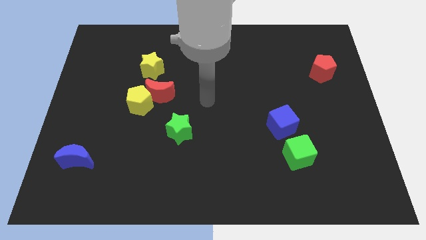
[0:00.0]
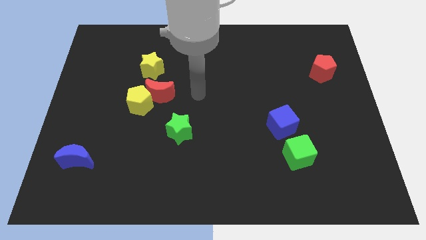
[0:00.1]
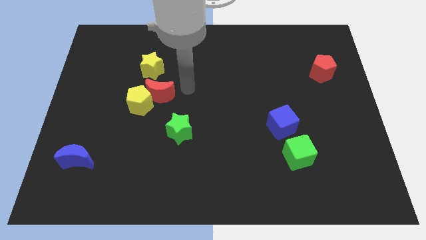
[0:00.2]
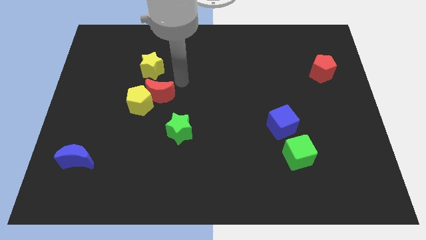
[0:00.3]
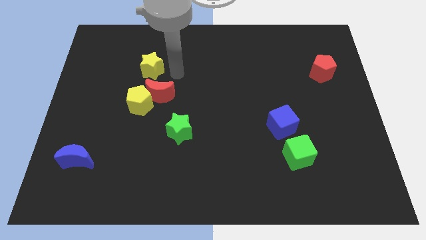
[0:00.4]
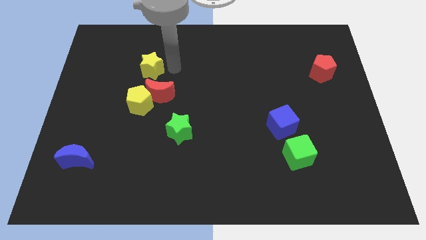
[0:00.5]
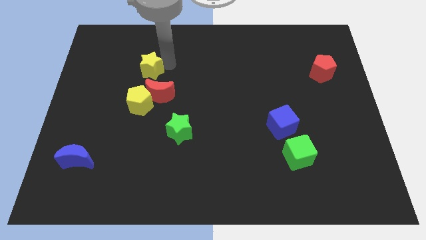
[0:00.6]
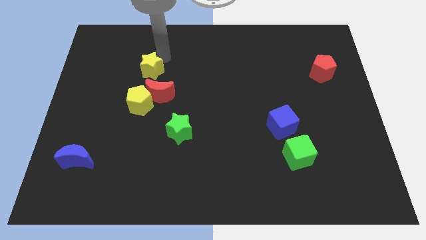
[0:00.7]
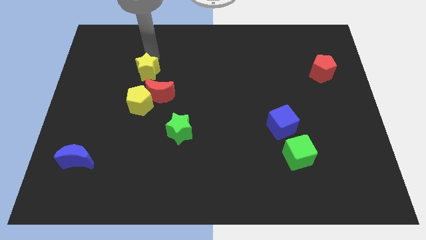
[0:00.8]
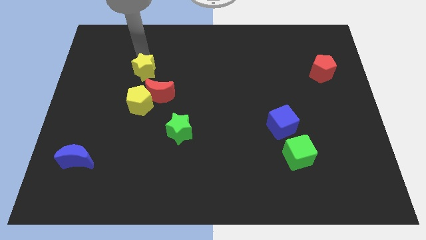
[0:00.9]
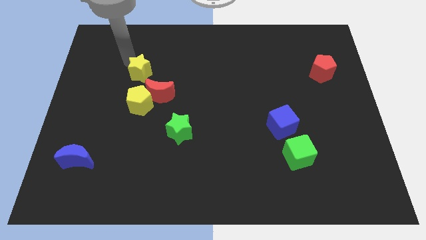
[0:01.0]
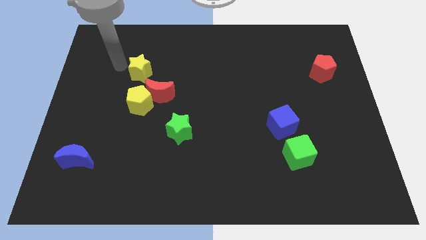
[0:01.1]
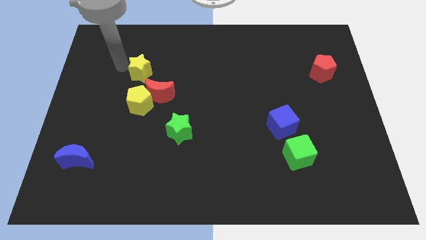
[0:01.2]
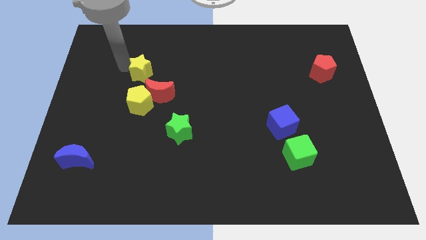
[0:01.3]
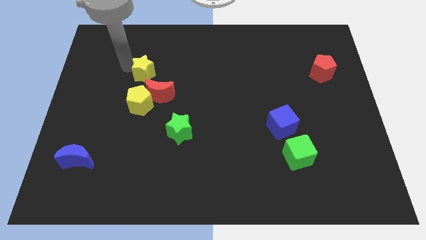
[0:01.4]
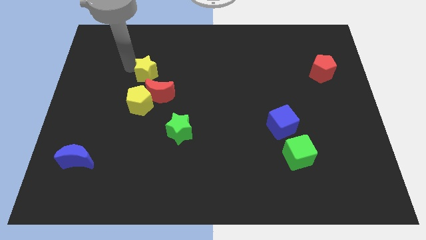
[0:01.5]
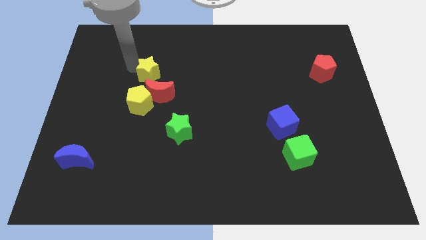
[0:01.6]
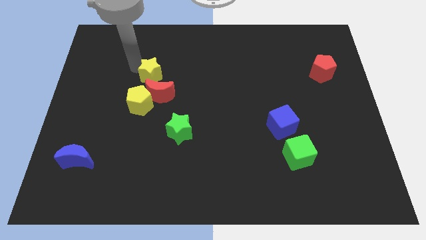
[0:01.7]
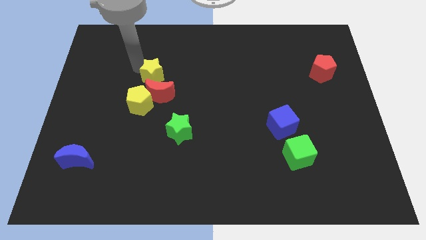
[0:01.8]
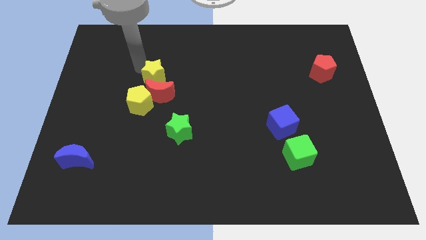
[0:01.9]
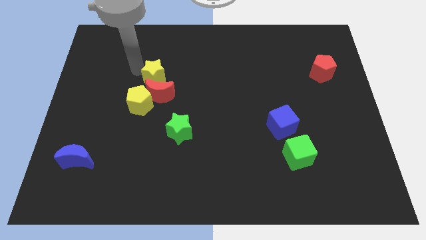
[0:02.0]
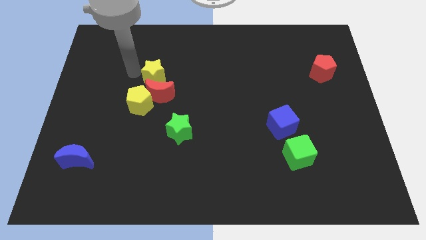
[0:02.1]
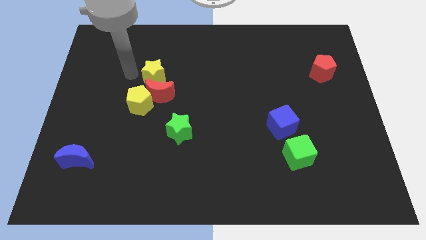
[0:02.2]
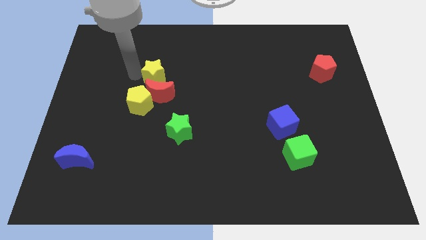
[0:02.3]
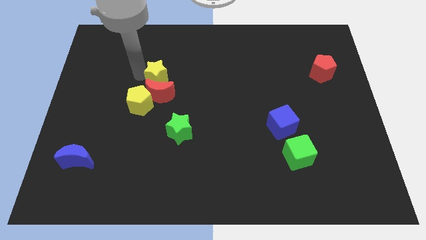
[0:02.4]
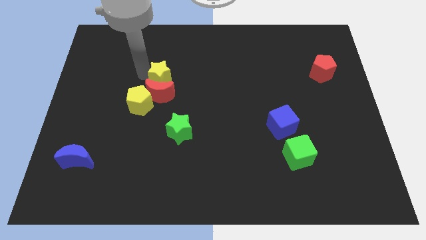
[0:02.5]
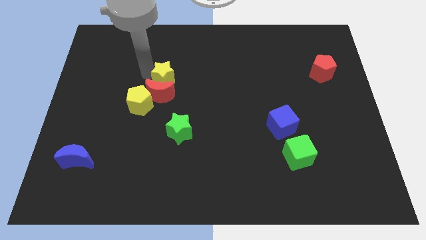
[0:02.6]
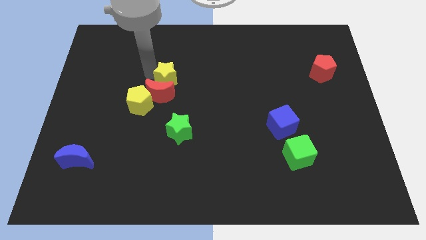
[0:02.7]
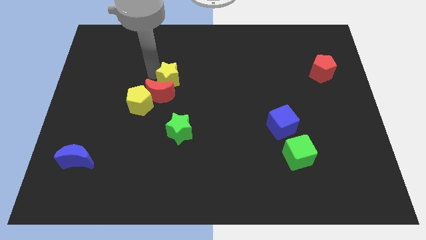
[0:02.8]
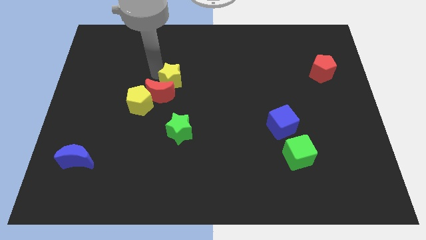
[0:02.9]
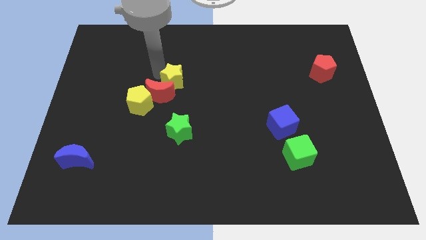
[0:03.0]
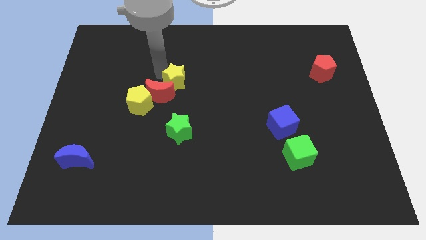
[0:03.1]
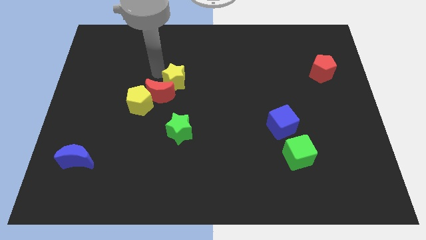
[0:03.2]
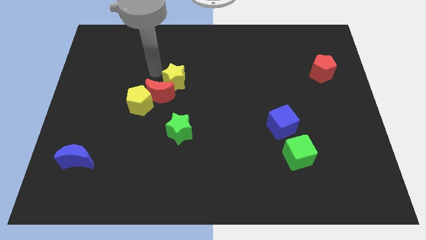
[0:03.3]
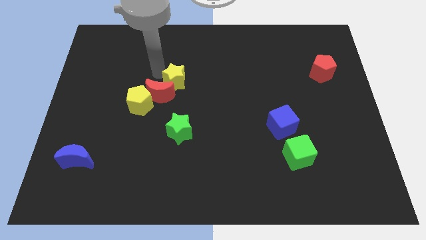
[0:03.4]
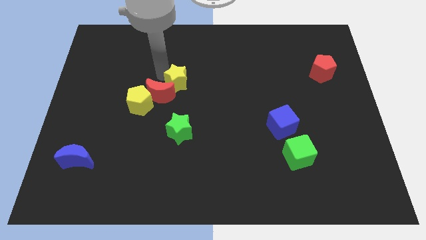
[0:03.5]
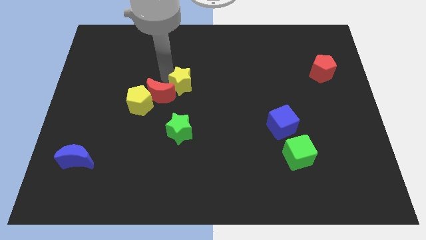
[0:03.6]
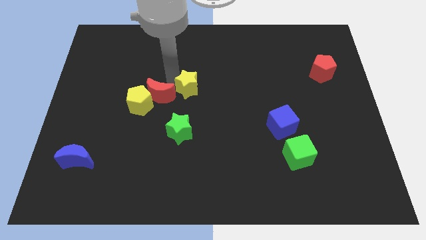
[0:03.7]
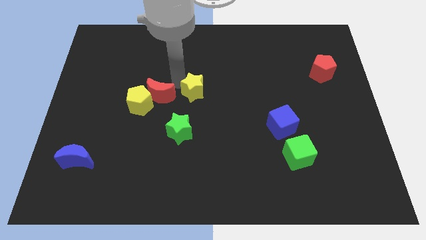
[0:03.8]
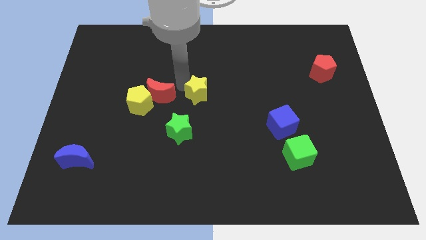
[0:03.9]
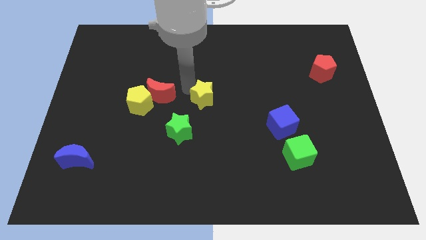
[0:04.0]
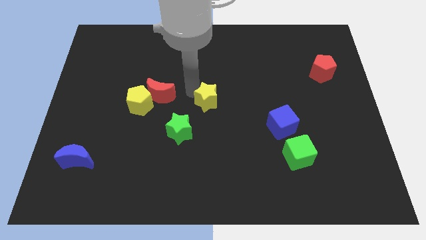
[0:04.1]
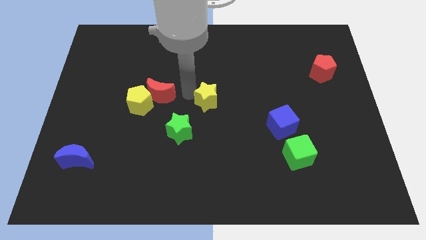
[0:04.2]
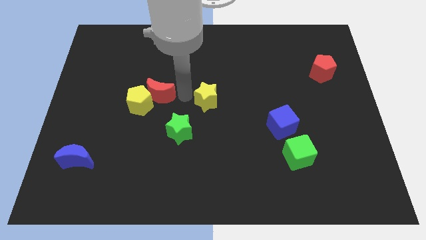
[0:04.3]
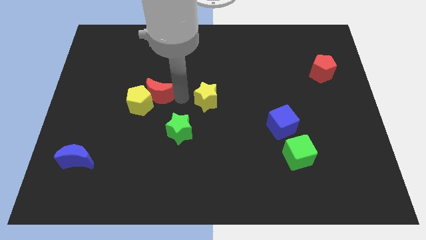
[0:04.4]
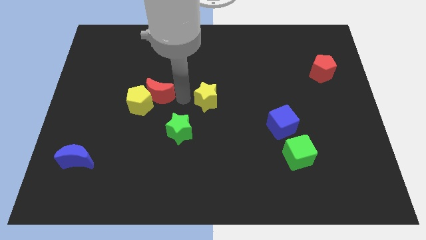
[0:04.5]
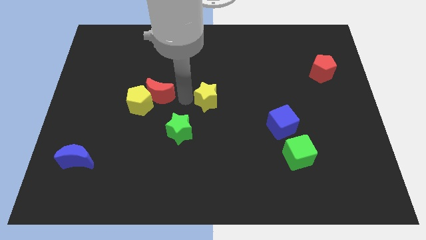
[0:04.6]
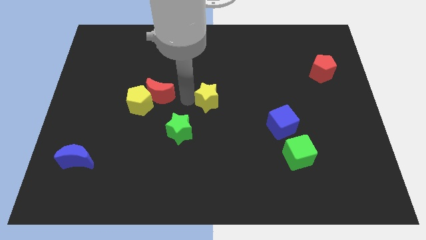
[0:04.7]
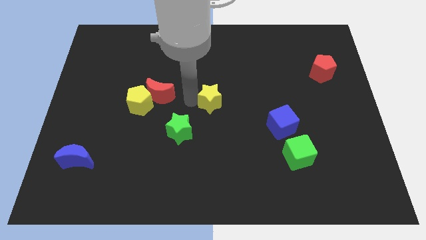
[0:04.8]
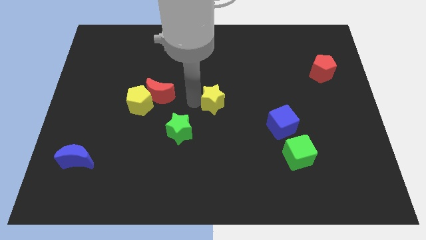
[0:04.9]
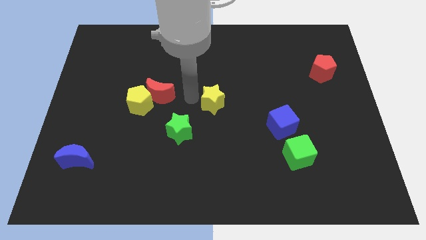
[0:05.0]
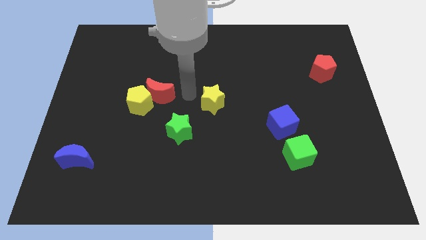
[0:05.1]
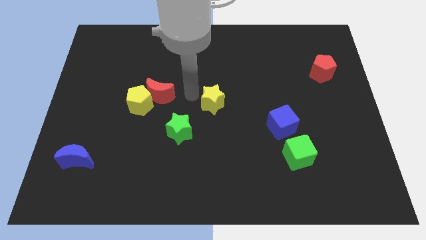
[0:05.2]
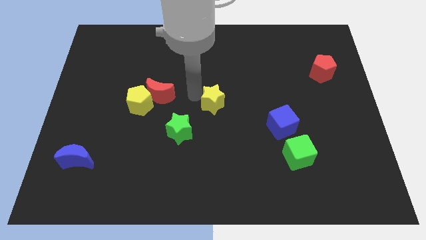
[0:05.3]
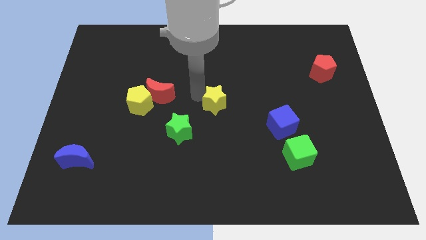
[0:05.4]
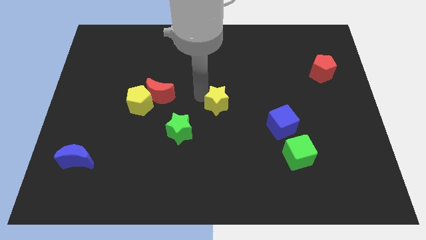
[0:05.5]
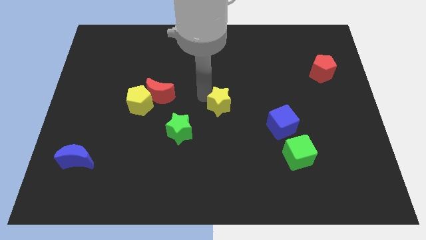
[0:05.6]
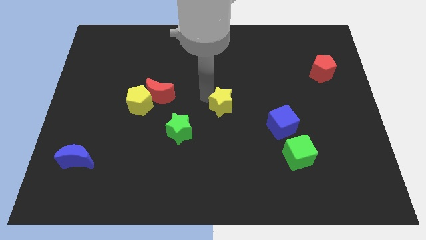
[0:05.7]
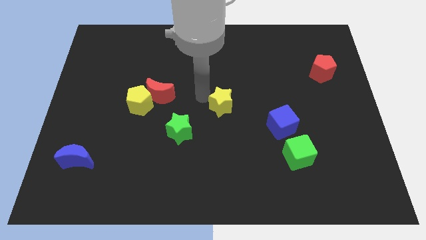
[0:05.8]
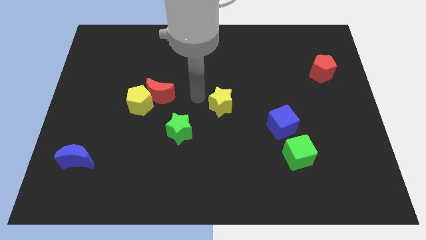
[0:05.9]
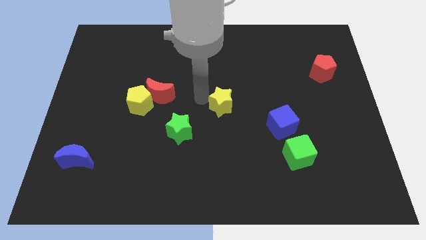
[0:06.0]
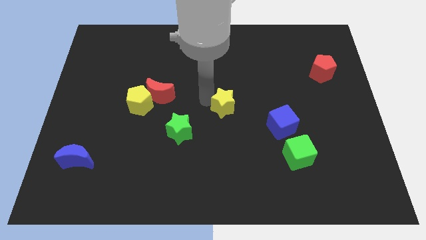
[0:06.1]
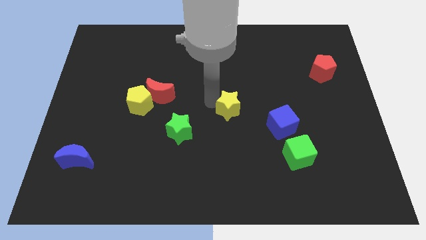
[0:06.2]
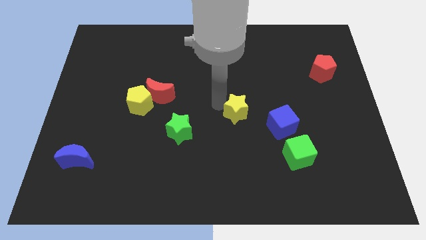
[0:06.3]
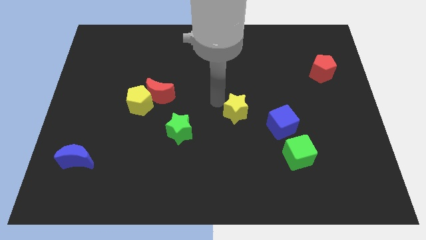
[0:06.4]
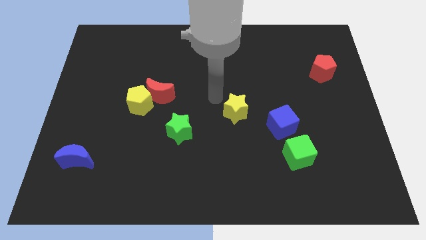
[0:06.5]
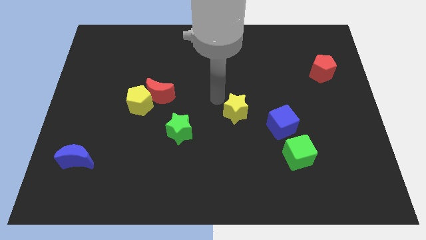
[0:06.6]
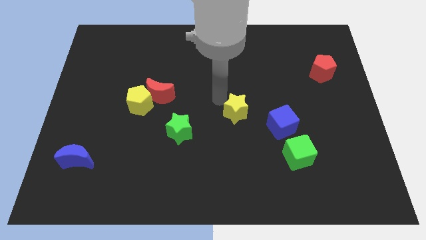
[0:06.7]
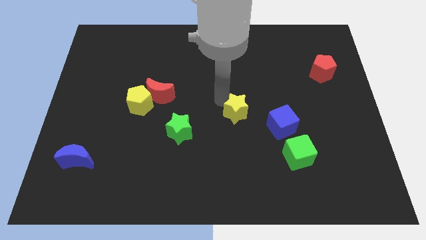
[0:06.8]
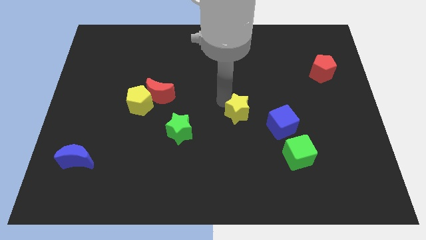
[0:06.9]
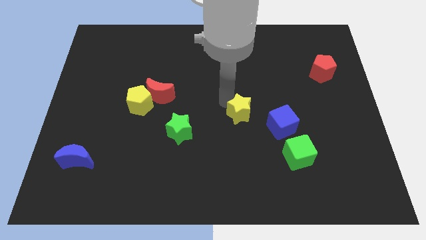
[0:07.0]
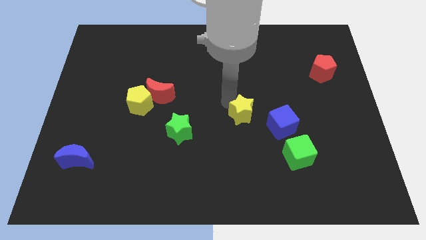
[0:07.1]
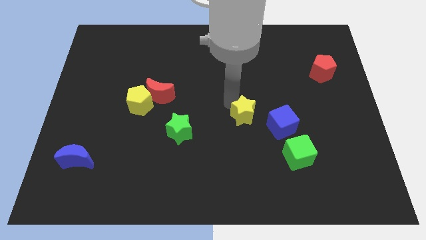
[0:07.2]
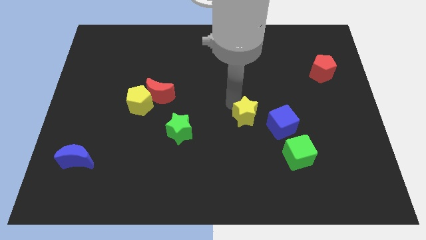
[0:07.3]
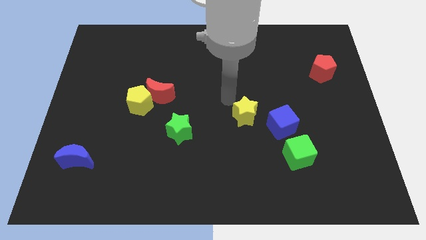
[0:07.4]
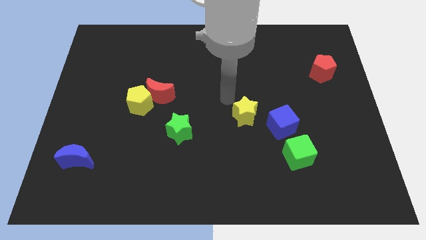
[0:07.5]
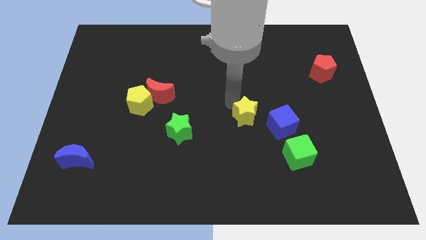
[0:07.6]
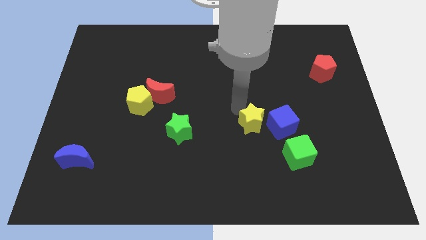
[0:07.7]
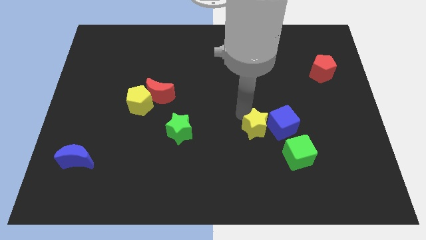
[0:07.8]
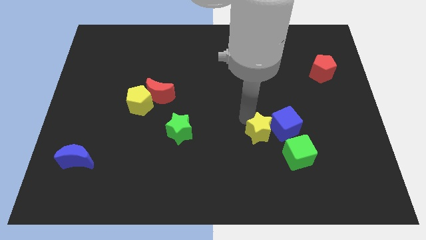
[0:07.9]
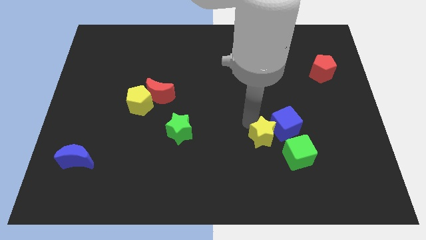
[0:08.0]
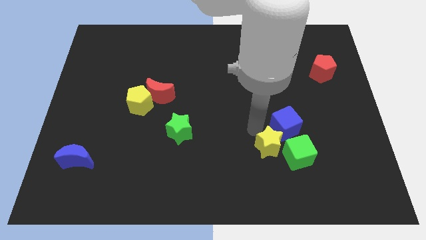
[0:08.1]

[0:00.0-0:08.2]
slide the yellow star close to the green cube
